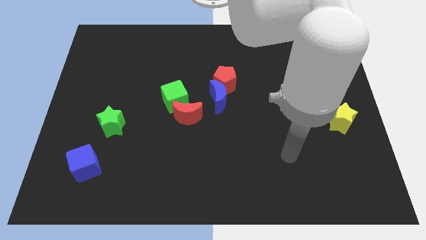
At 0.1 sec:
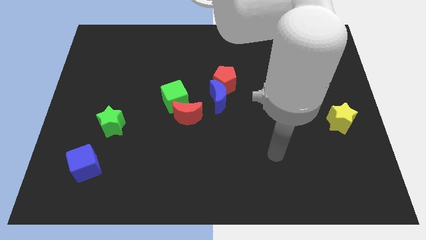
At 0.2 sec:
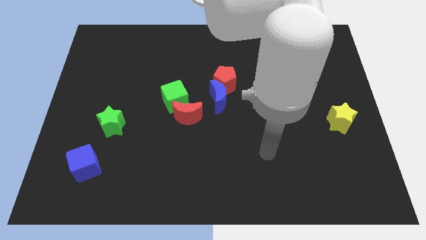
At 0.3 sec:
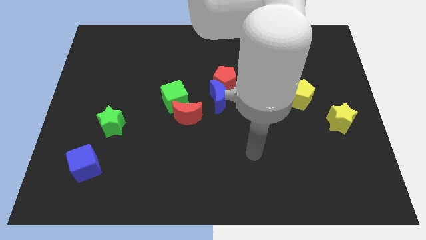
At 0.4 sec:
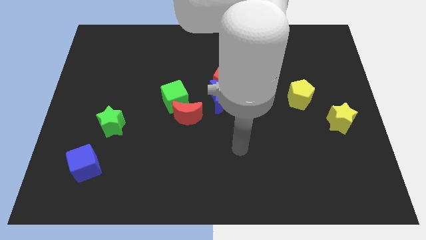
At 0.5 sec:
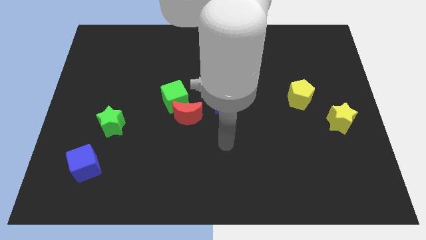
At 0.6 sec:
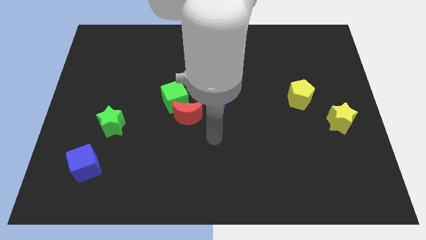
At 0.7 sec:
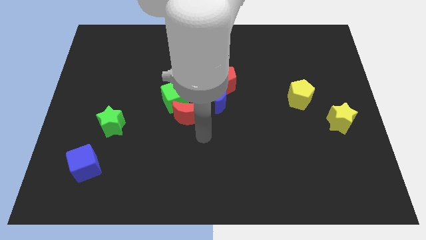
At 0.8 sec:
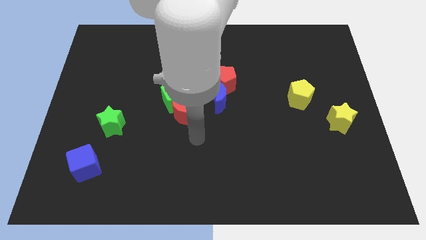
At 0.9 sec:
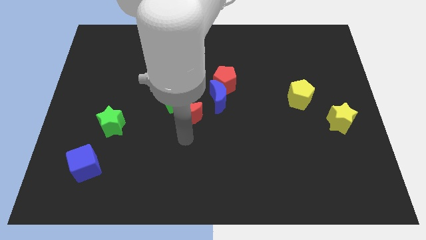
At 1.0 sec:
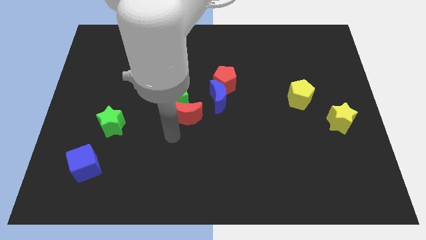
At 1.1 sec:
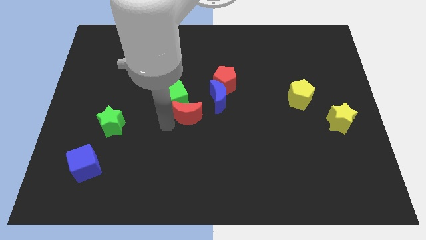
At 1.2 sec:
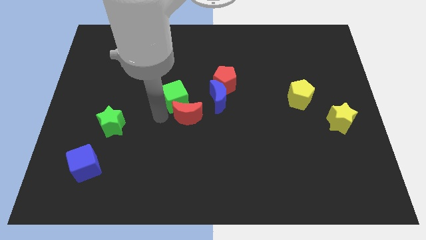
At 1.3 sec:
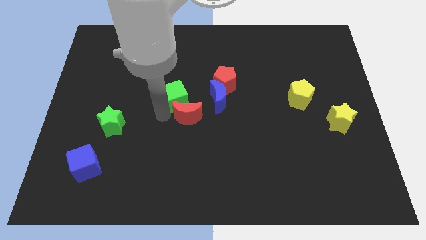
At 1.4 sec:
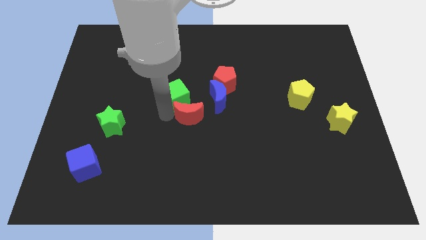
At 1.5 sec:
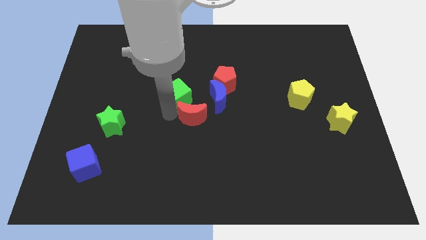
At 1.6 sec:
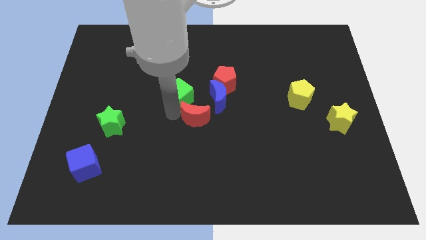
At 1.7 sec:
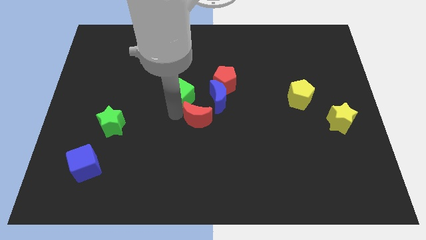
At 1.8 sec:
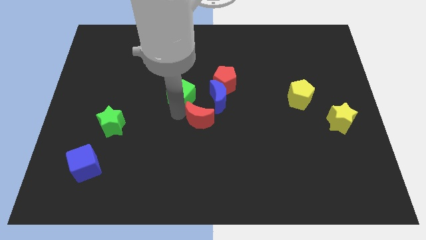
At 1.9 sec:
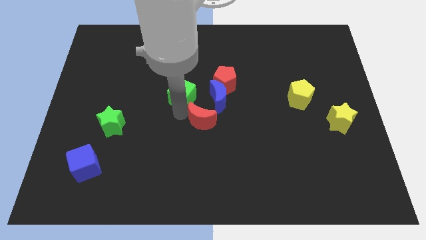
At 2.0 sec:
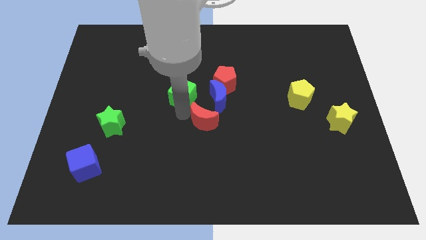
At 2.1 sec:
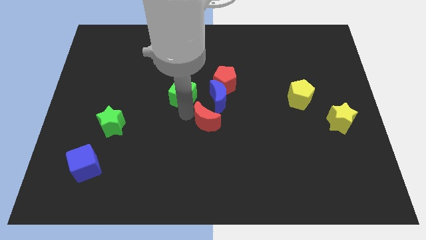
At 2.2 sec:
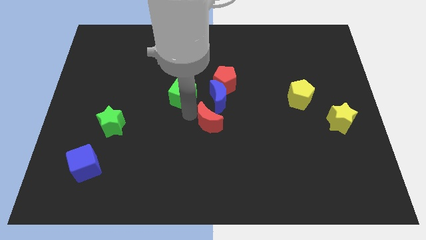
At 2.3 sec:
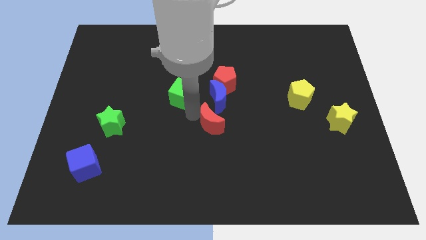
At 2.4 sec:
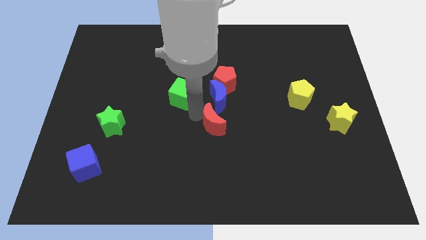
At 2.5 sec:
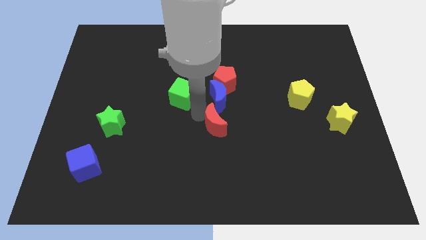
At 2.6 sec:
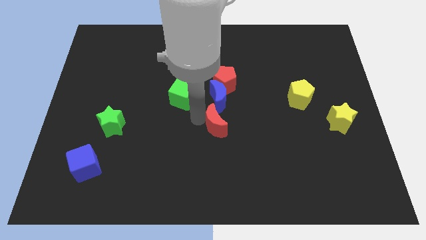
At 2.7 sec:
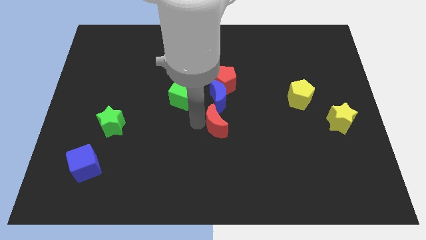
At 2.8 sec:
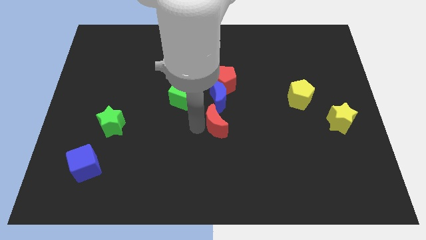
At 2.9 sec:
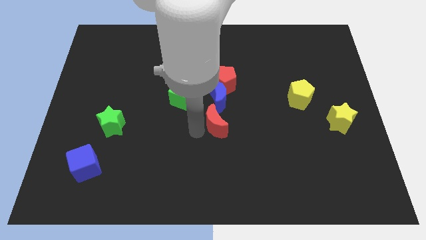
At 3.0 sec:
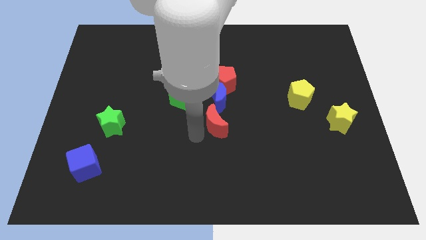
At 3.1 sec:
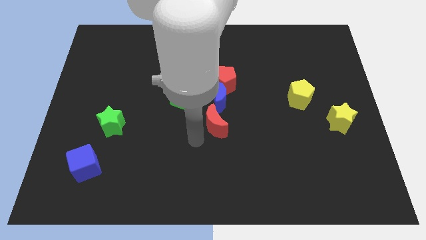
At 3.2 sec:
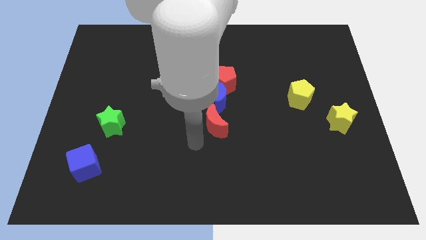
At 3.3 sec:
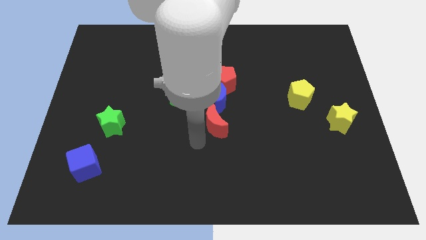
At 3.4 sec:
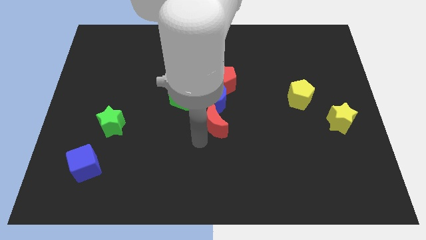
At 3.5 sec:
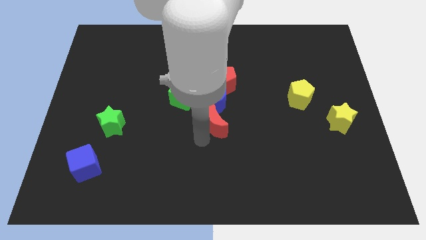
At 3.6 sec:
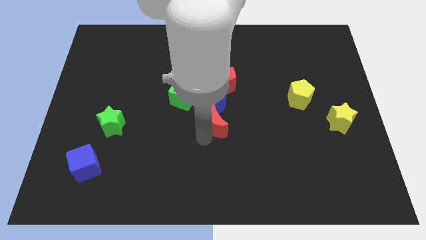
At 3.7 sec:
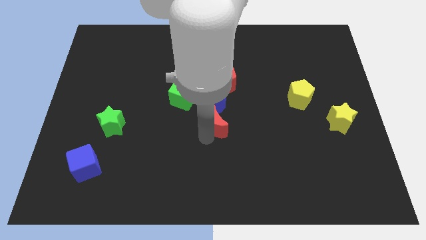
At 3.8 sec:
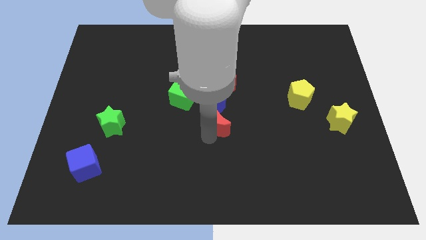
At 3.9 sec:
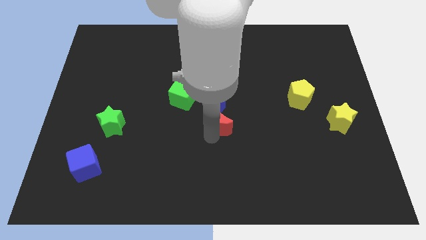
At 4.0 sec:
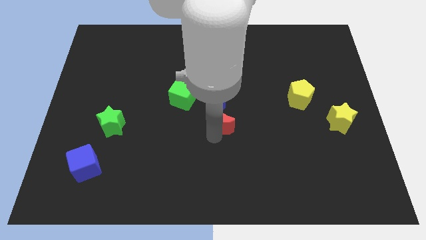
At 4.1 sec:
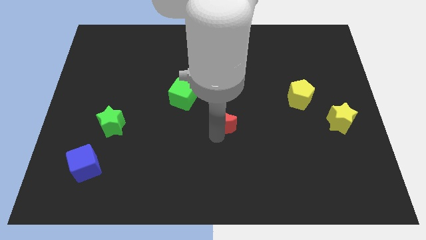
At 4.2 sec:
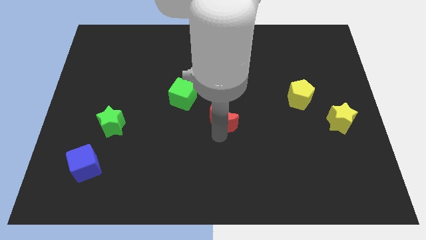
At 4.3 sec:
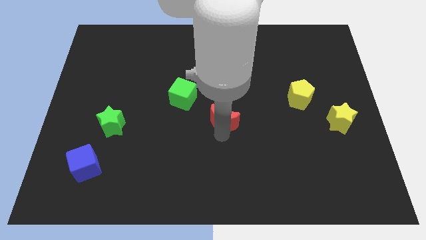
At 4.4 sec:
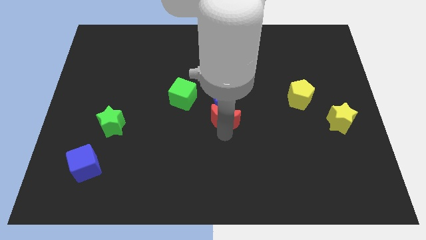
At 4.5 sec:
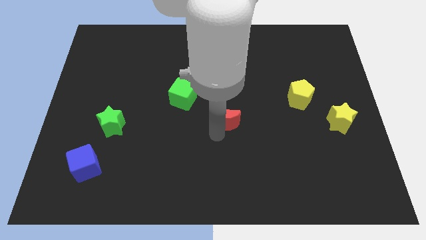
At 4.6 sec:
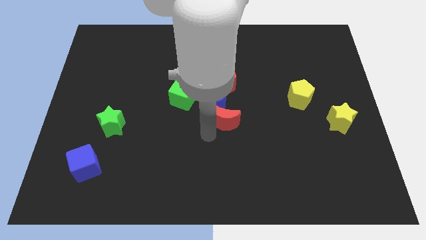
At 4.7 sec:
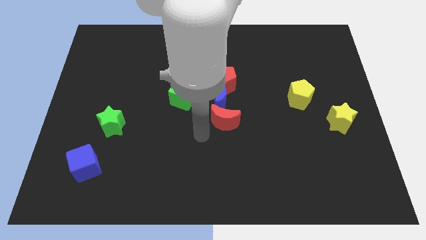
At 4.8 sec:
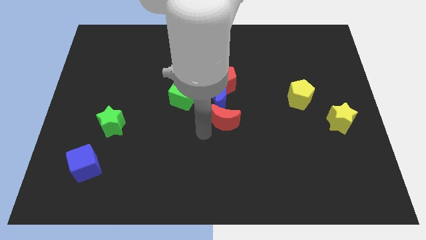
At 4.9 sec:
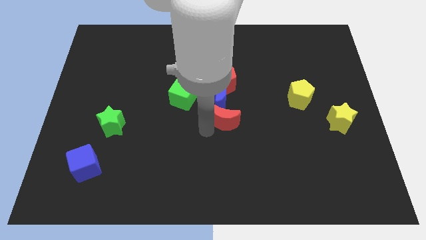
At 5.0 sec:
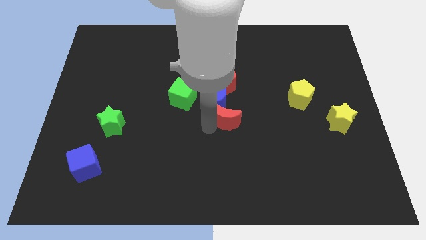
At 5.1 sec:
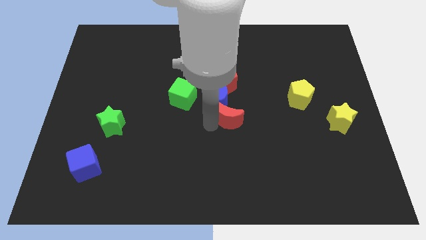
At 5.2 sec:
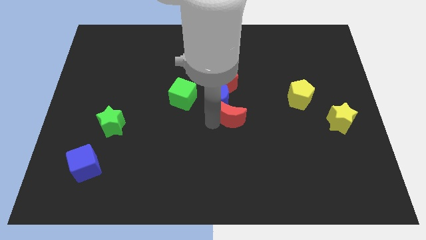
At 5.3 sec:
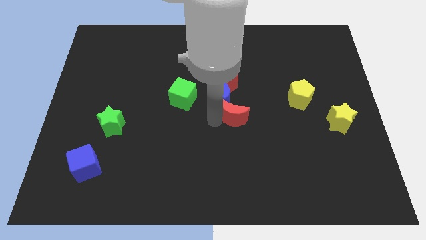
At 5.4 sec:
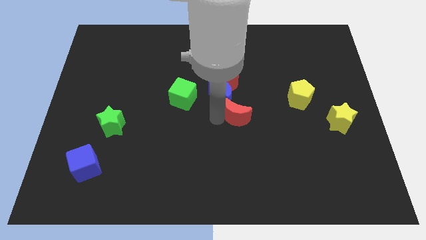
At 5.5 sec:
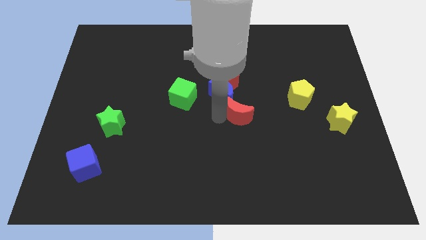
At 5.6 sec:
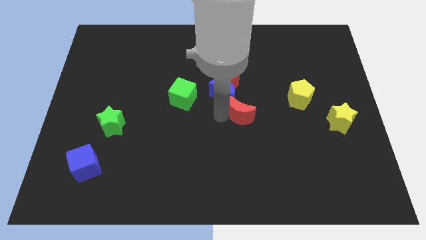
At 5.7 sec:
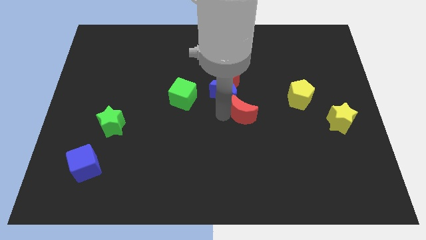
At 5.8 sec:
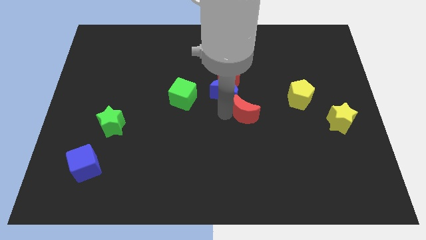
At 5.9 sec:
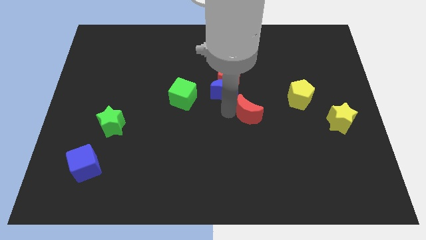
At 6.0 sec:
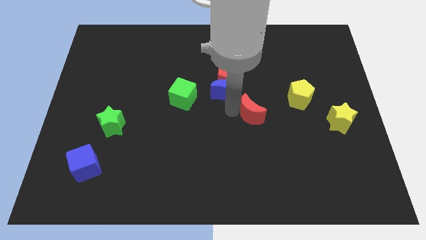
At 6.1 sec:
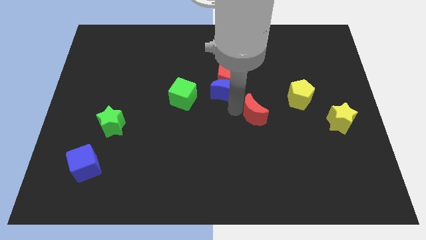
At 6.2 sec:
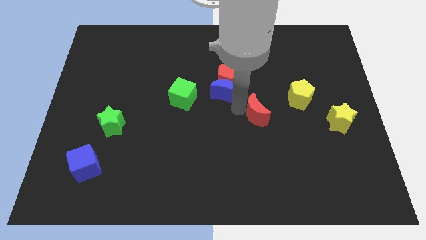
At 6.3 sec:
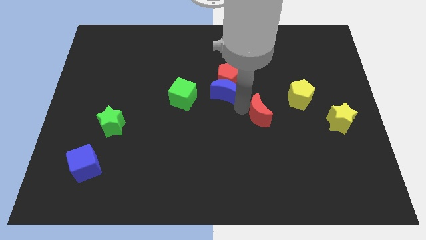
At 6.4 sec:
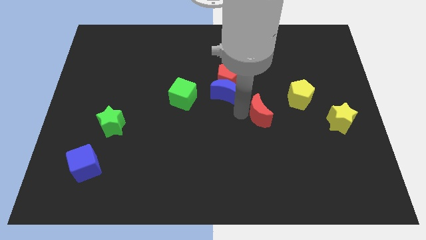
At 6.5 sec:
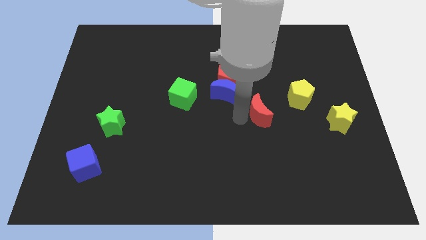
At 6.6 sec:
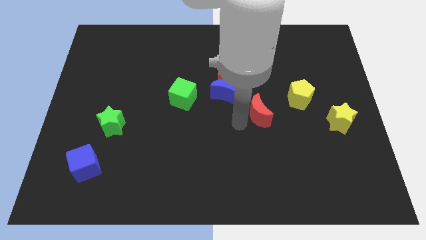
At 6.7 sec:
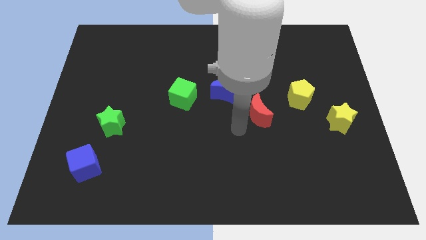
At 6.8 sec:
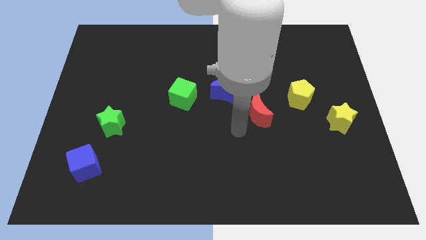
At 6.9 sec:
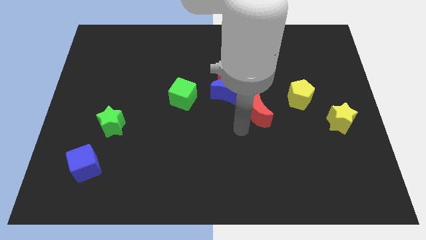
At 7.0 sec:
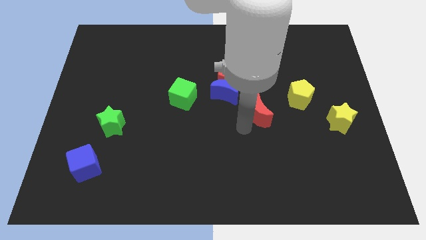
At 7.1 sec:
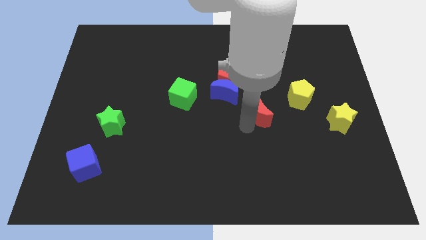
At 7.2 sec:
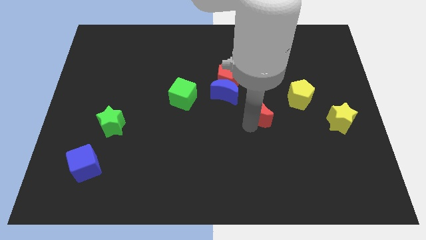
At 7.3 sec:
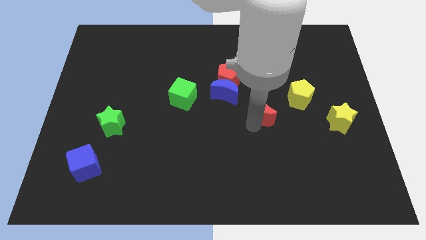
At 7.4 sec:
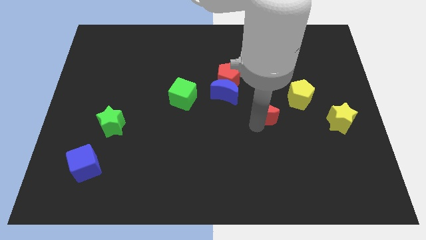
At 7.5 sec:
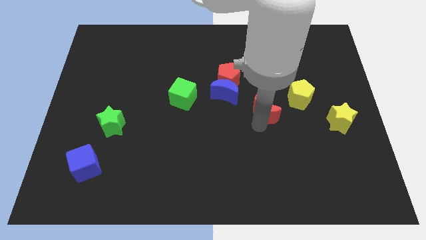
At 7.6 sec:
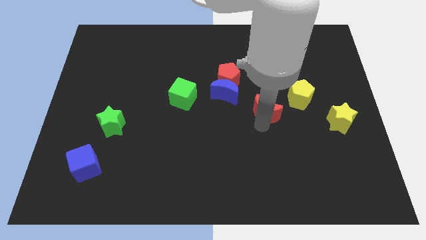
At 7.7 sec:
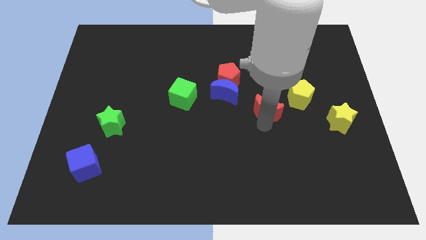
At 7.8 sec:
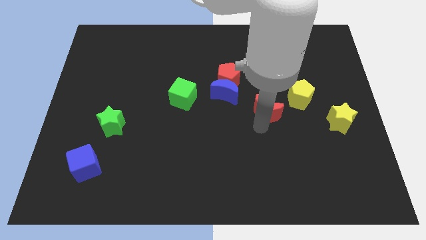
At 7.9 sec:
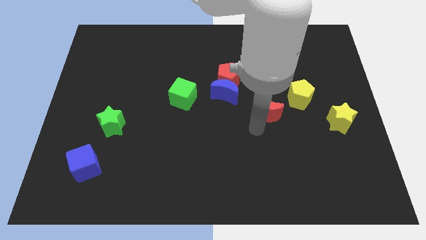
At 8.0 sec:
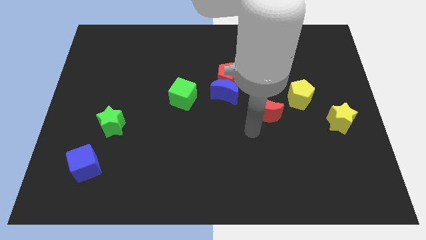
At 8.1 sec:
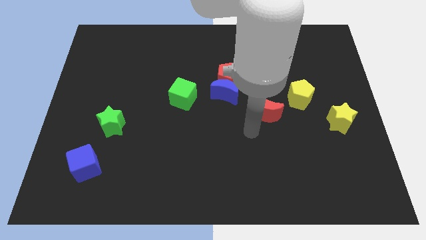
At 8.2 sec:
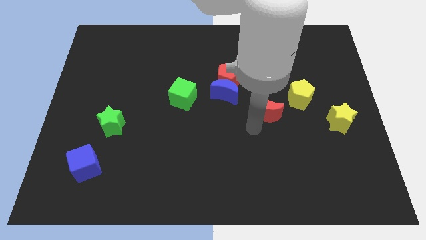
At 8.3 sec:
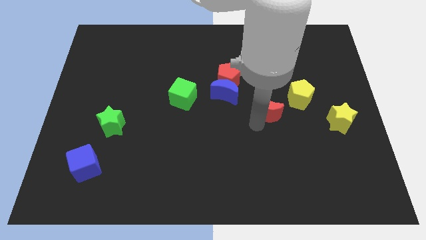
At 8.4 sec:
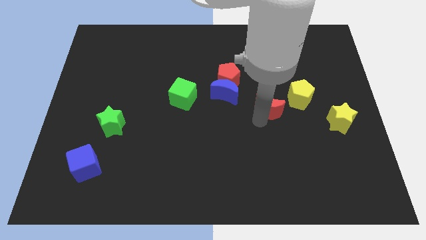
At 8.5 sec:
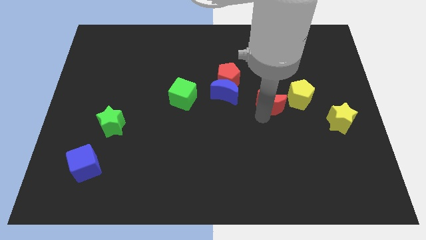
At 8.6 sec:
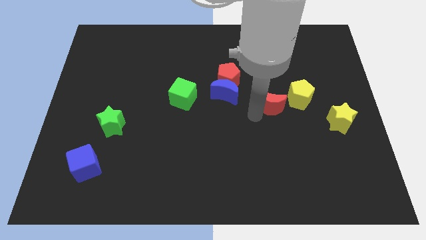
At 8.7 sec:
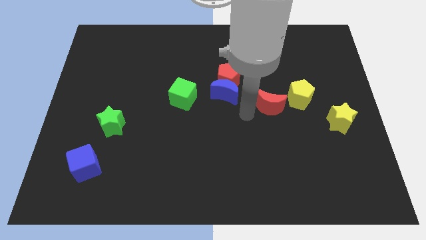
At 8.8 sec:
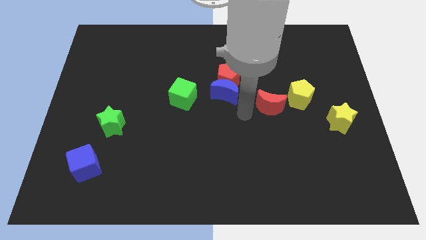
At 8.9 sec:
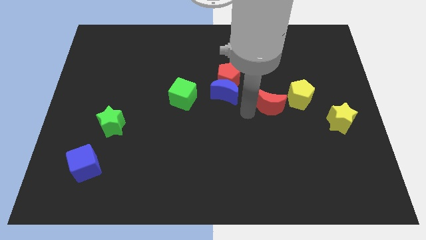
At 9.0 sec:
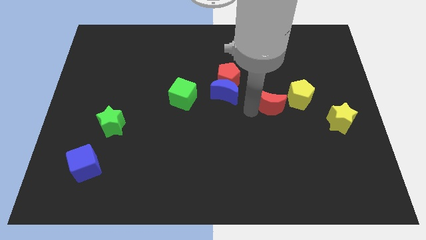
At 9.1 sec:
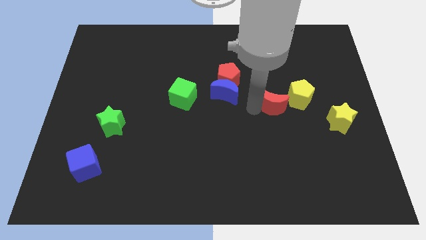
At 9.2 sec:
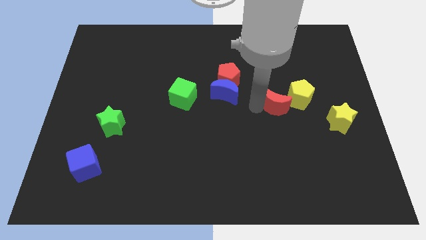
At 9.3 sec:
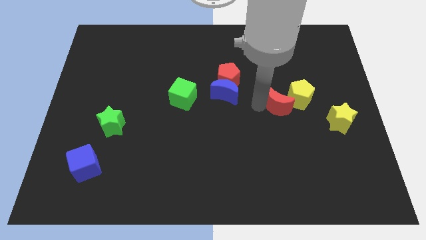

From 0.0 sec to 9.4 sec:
slide the red moon to the yellow pentagon
